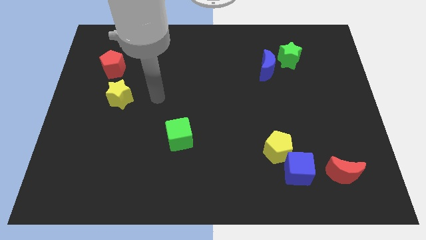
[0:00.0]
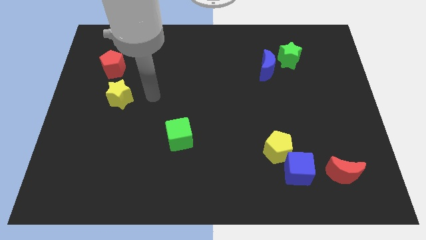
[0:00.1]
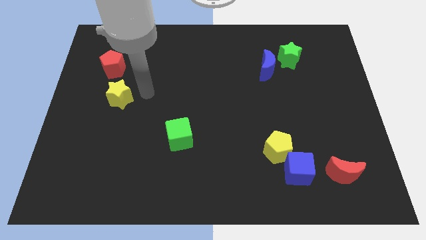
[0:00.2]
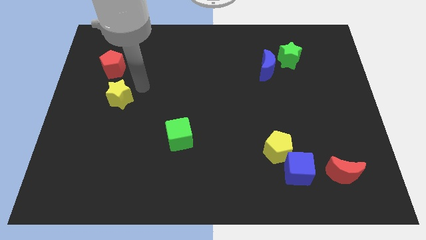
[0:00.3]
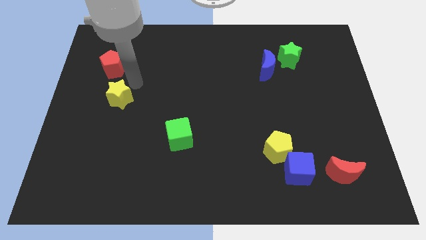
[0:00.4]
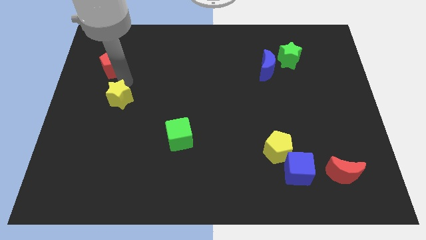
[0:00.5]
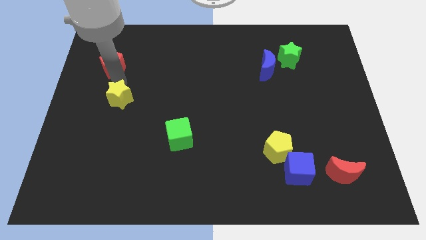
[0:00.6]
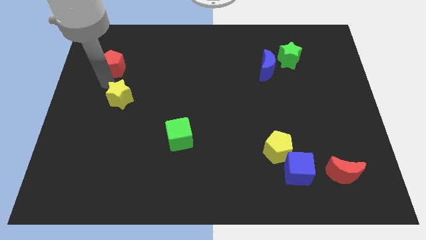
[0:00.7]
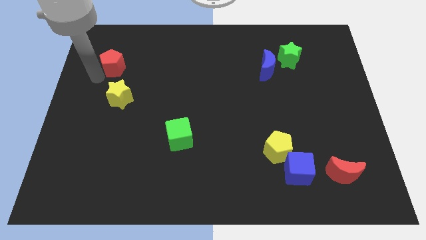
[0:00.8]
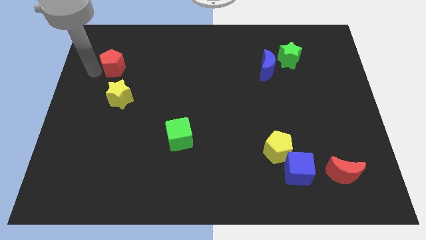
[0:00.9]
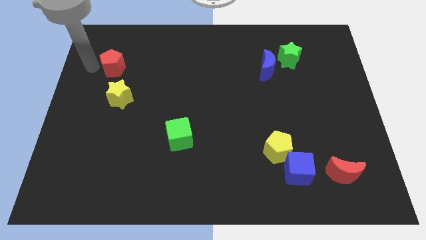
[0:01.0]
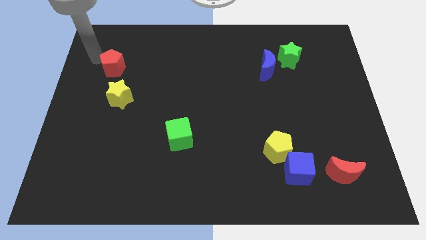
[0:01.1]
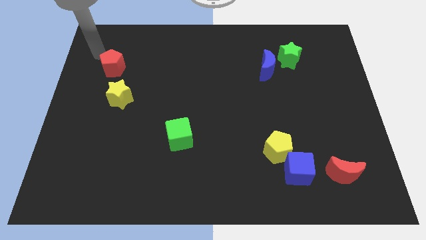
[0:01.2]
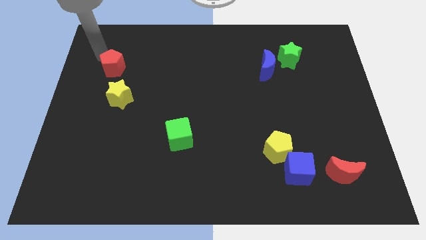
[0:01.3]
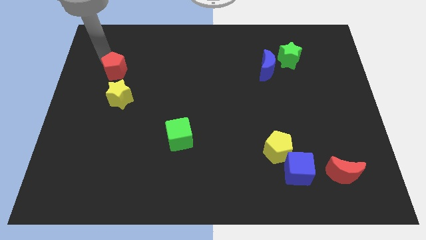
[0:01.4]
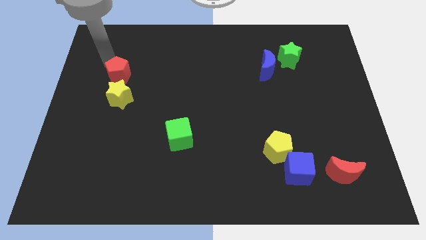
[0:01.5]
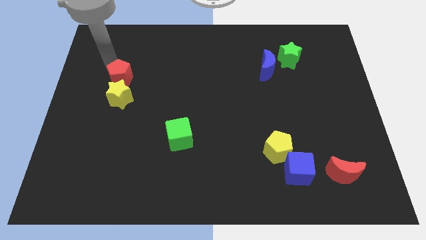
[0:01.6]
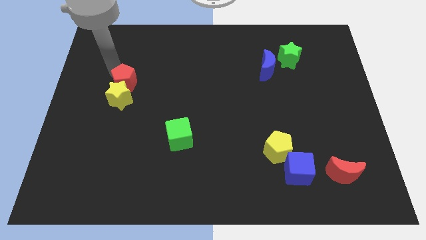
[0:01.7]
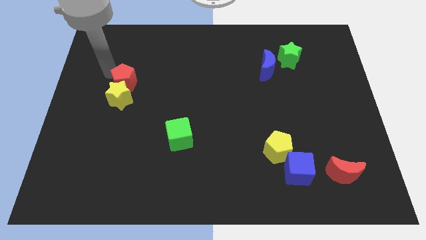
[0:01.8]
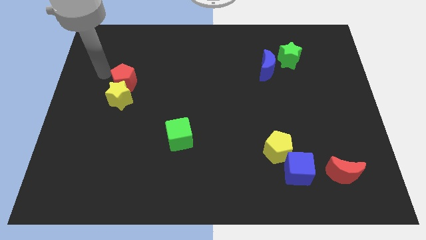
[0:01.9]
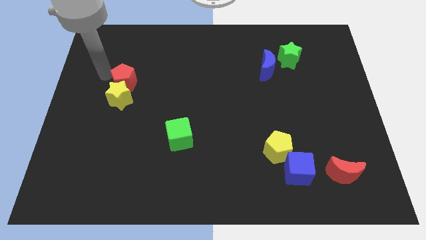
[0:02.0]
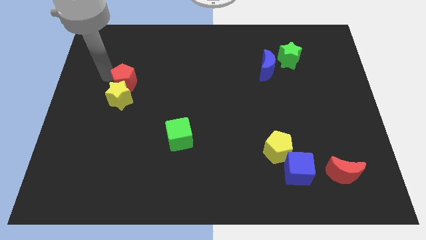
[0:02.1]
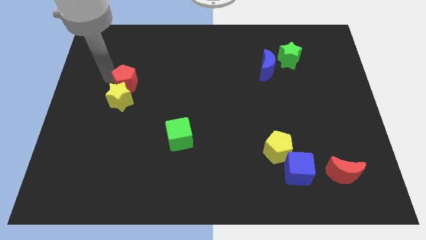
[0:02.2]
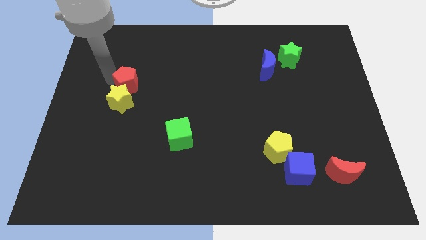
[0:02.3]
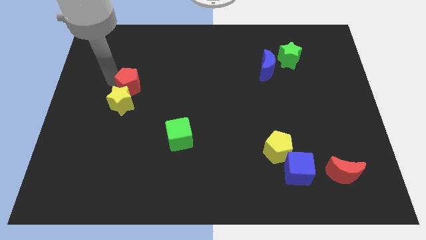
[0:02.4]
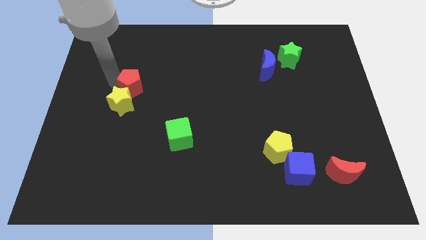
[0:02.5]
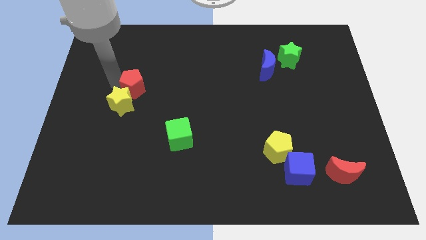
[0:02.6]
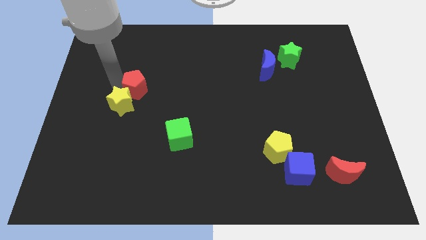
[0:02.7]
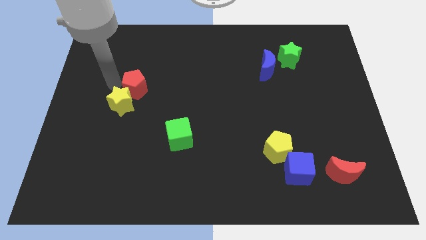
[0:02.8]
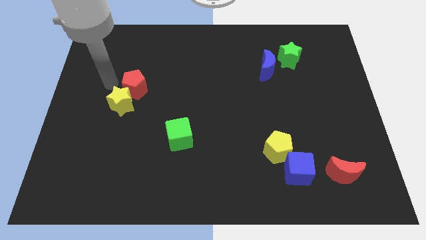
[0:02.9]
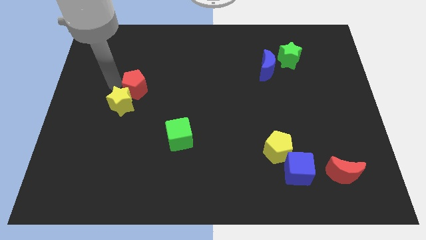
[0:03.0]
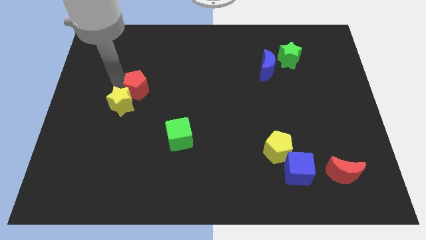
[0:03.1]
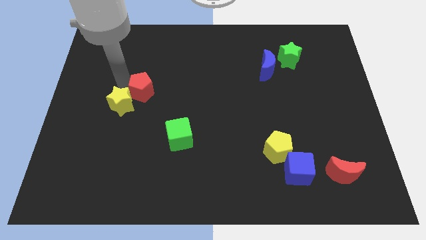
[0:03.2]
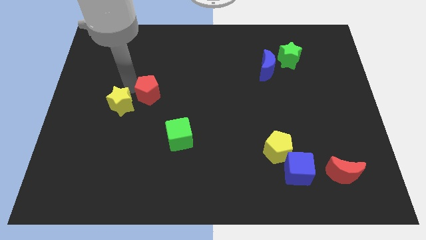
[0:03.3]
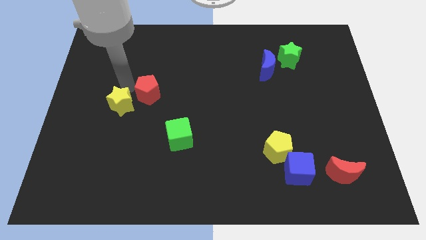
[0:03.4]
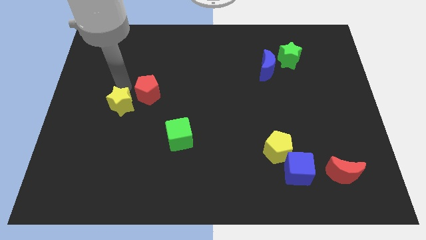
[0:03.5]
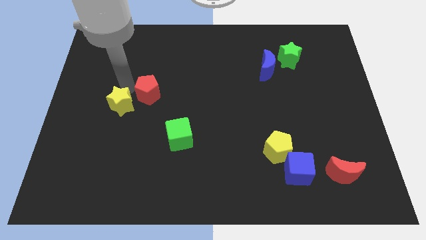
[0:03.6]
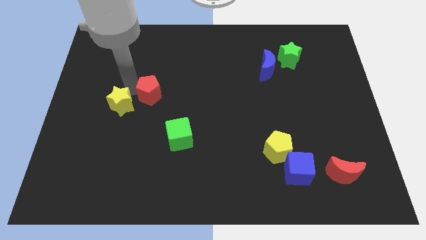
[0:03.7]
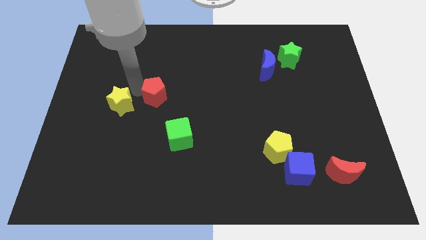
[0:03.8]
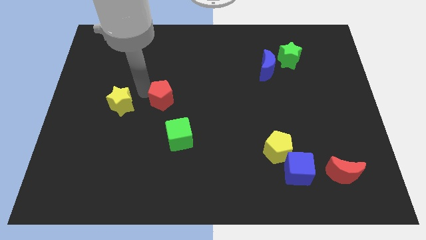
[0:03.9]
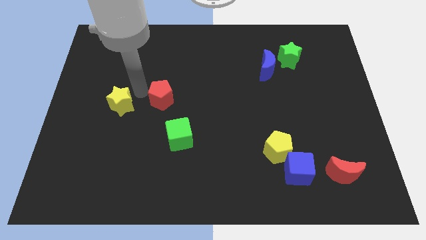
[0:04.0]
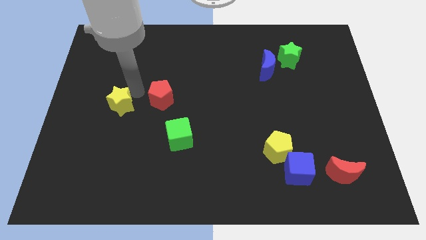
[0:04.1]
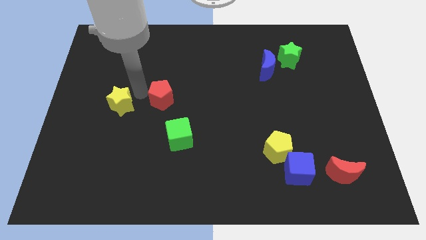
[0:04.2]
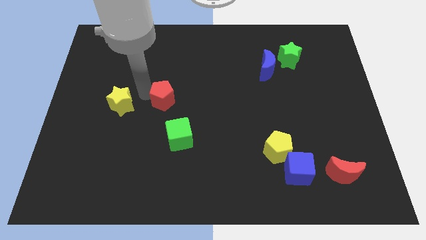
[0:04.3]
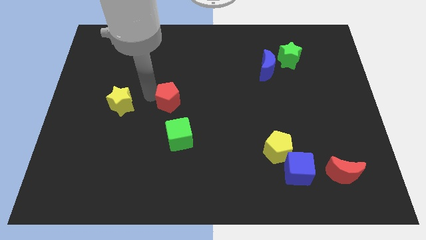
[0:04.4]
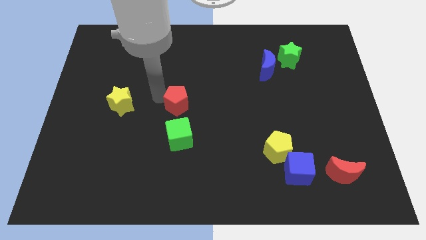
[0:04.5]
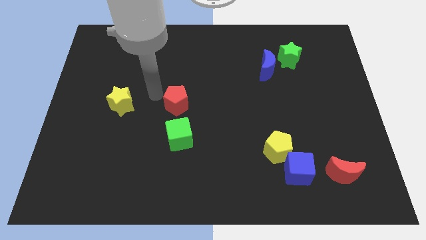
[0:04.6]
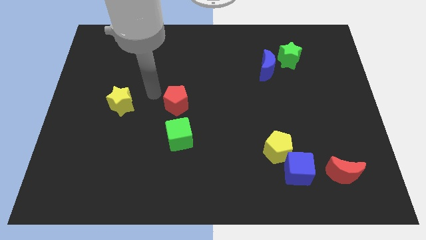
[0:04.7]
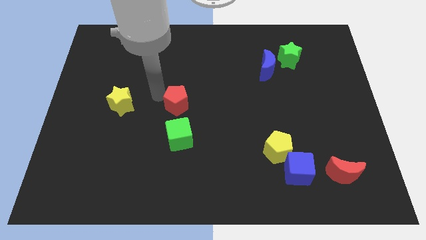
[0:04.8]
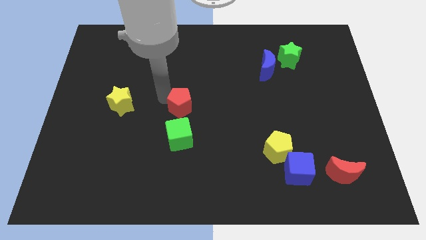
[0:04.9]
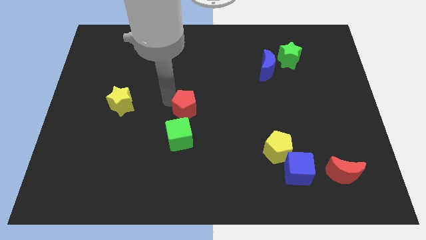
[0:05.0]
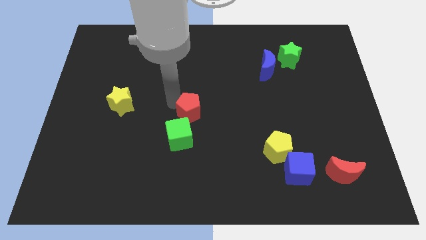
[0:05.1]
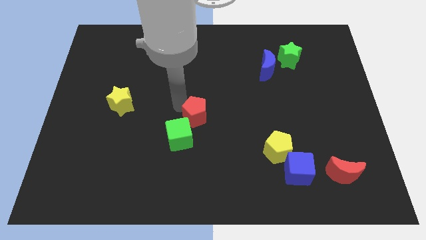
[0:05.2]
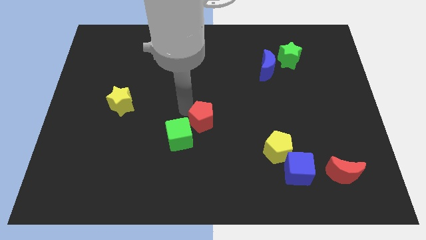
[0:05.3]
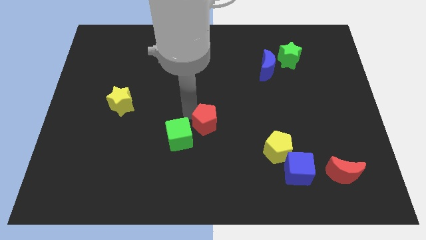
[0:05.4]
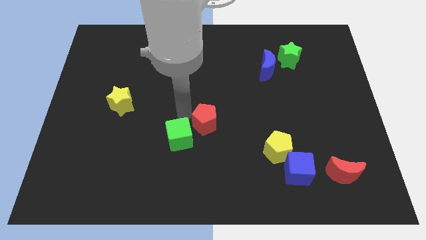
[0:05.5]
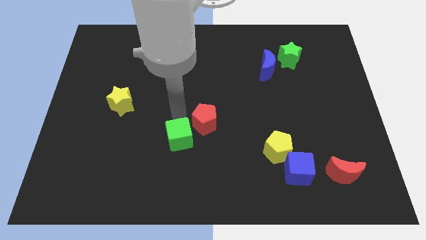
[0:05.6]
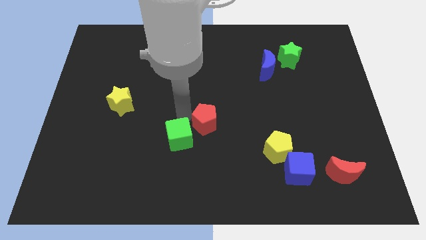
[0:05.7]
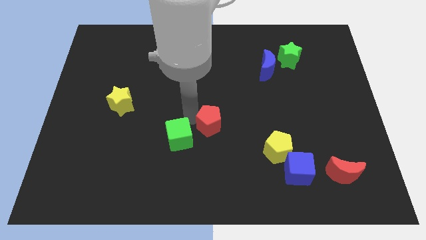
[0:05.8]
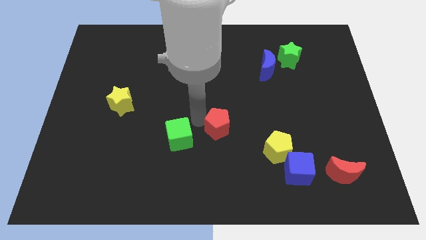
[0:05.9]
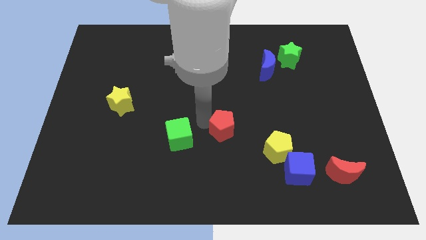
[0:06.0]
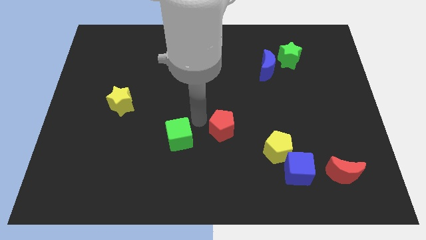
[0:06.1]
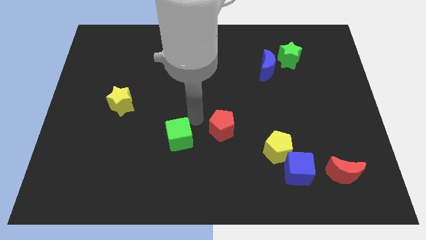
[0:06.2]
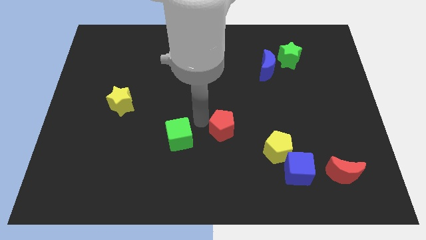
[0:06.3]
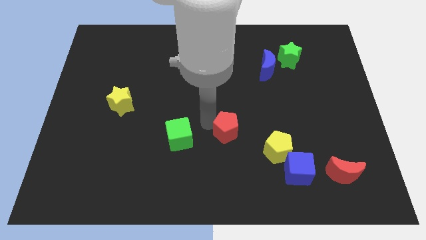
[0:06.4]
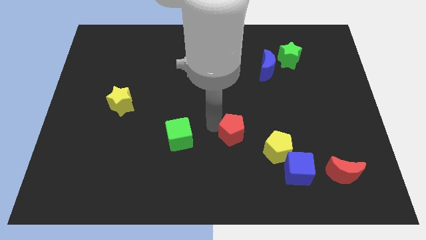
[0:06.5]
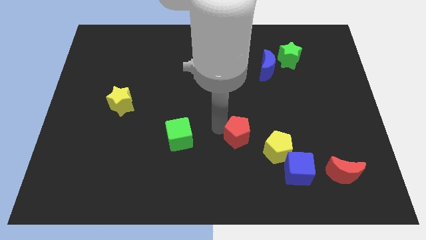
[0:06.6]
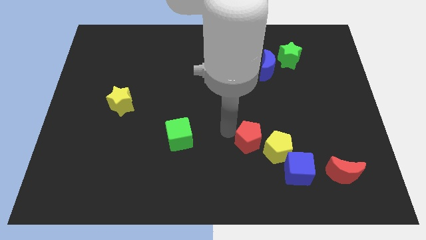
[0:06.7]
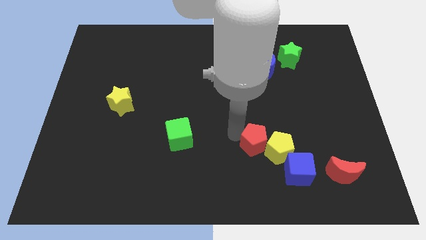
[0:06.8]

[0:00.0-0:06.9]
slide the red pentagon close to the yellow pentagon
